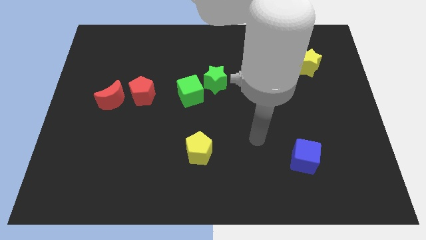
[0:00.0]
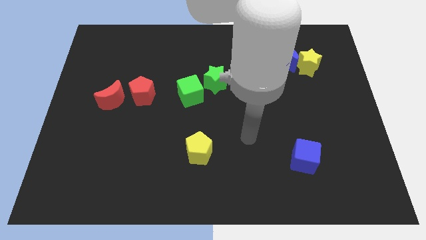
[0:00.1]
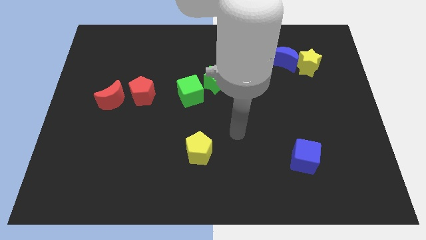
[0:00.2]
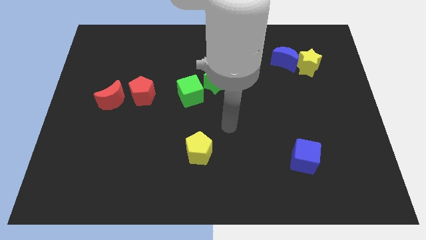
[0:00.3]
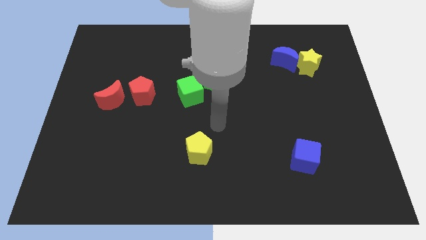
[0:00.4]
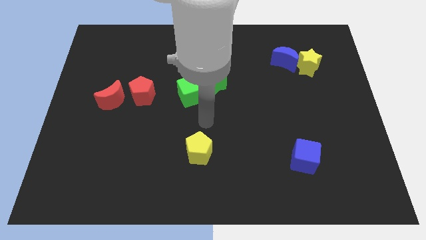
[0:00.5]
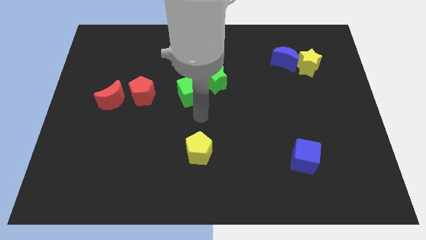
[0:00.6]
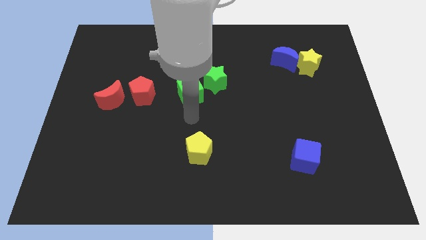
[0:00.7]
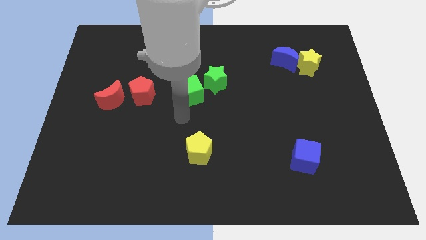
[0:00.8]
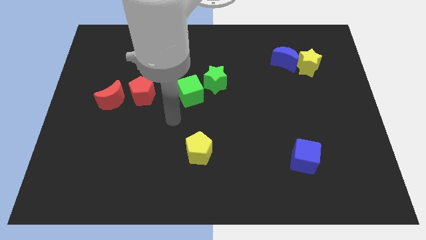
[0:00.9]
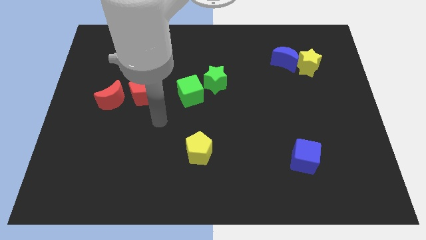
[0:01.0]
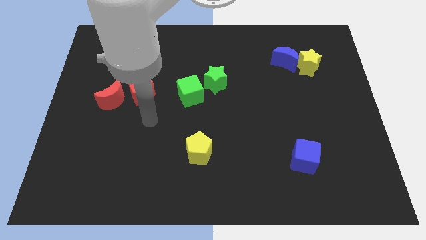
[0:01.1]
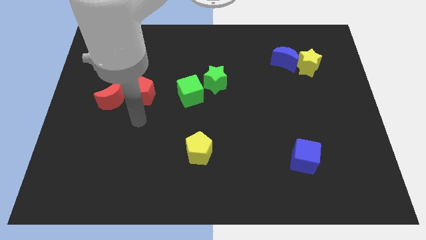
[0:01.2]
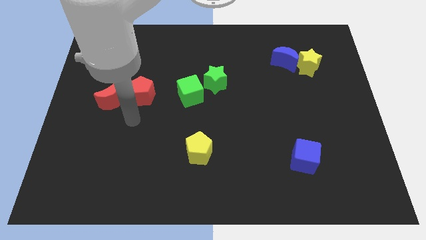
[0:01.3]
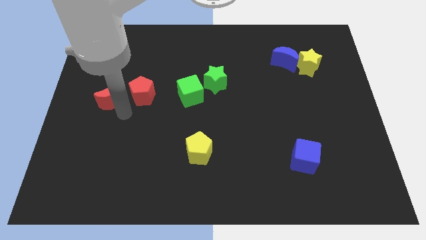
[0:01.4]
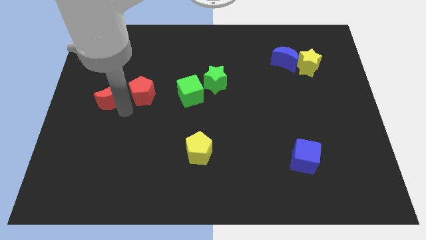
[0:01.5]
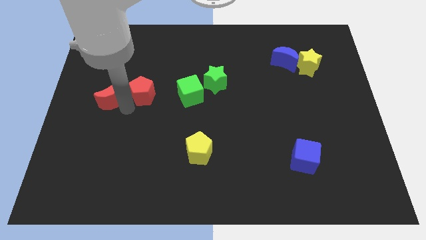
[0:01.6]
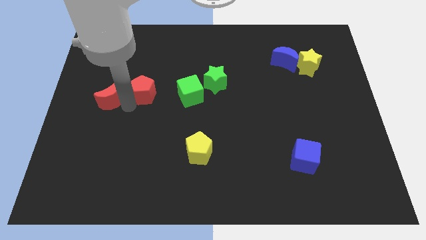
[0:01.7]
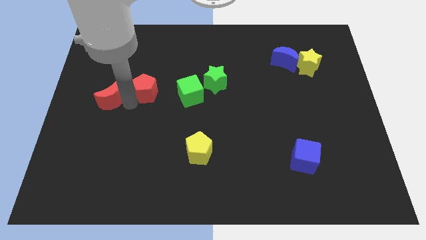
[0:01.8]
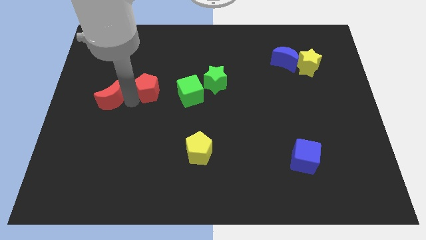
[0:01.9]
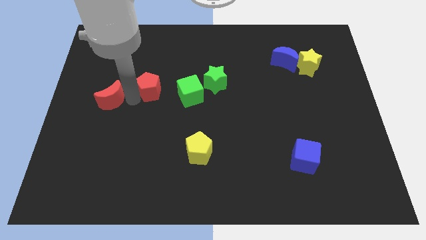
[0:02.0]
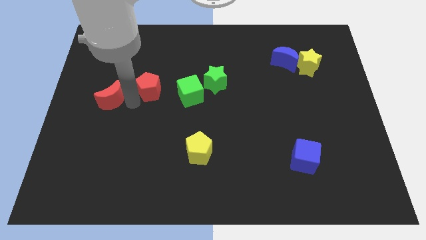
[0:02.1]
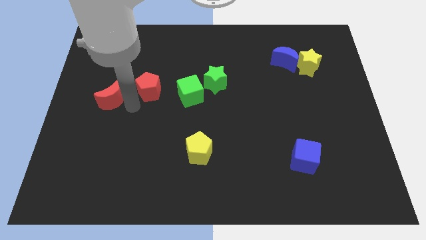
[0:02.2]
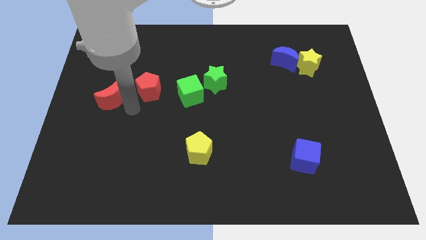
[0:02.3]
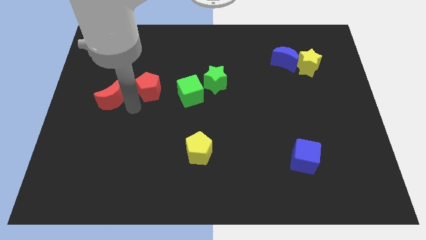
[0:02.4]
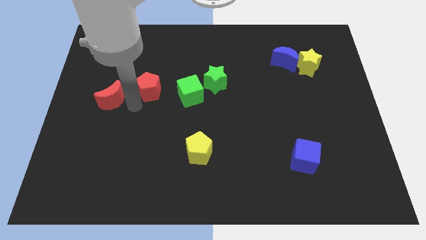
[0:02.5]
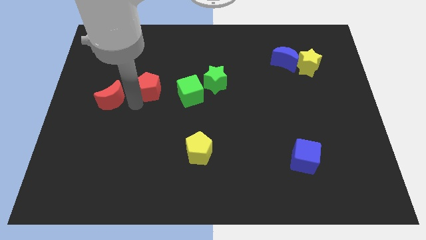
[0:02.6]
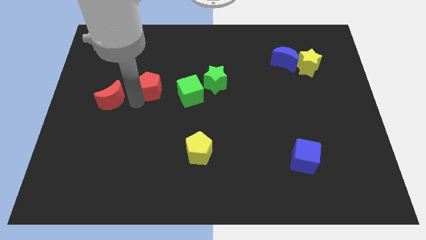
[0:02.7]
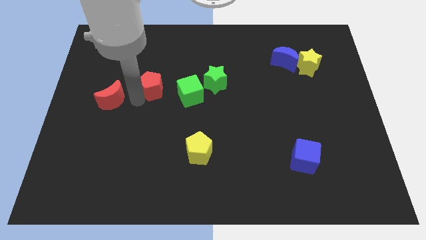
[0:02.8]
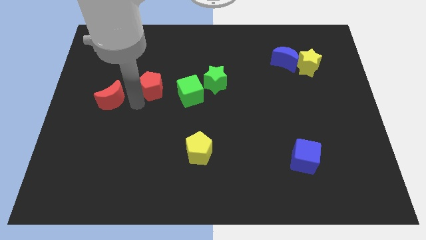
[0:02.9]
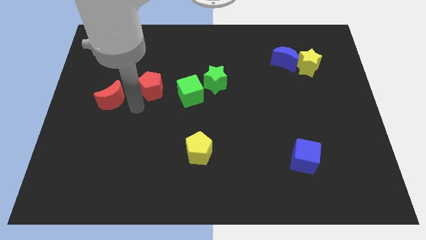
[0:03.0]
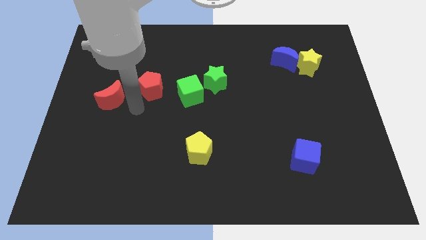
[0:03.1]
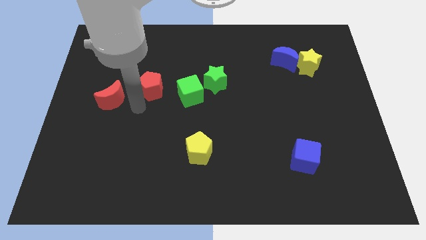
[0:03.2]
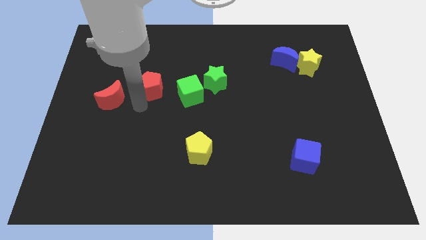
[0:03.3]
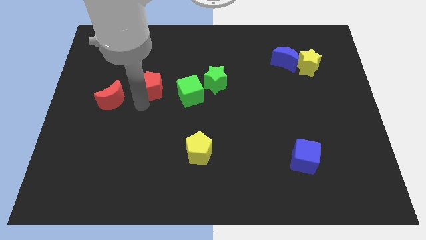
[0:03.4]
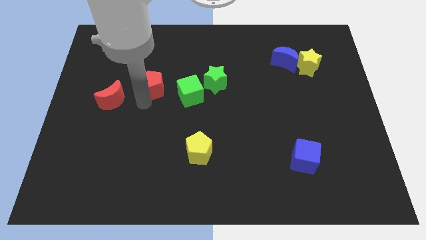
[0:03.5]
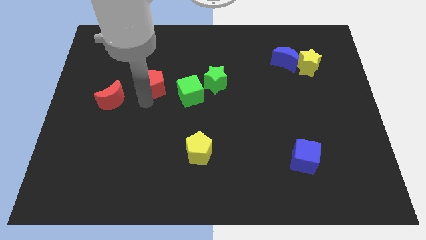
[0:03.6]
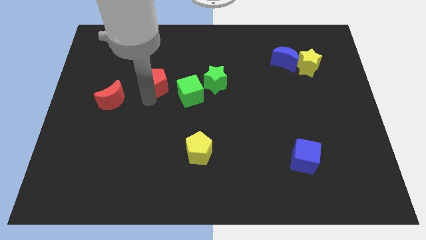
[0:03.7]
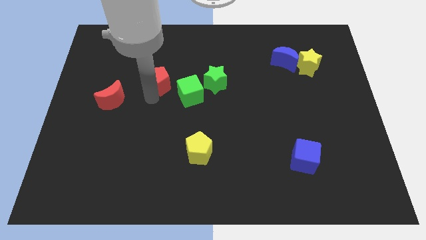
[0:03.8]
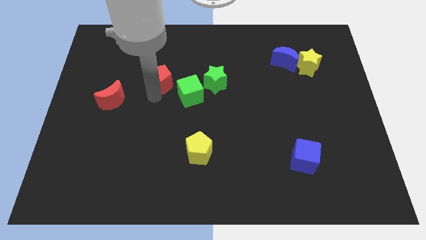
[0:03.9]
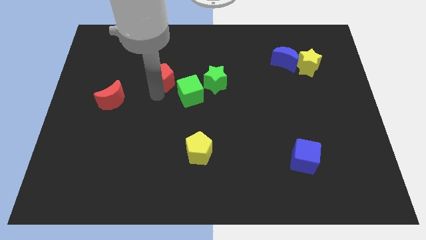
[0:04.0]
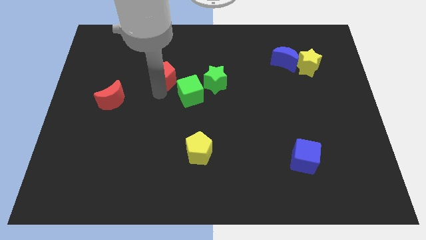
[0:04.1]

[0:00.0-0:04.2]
move the red pentagon somewhat up and then right

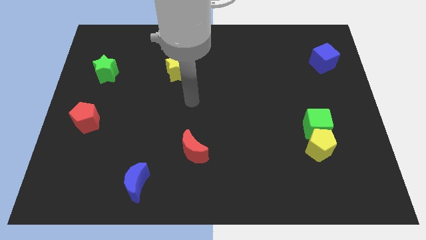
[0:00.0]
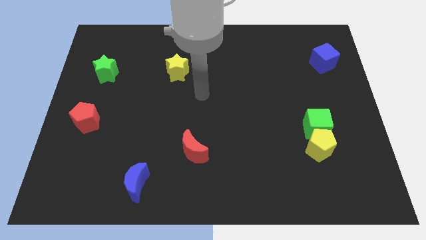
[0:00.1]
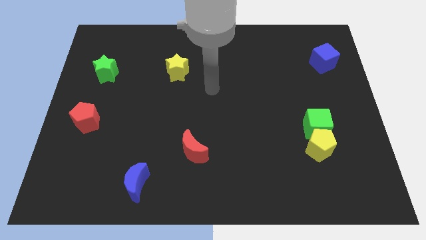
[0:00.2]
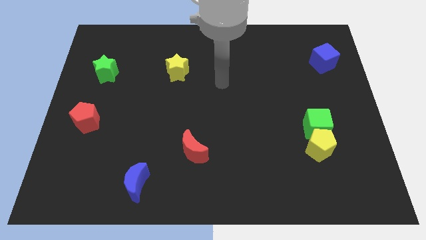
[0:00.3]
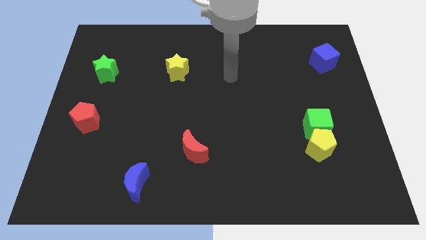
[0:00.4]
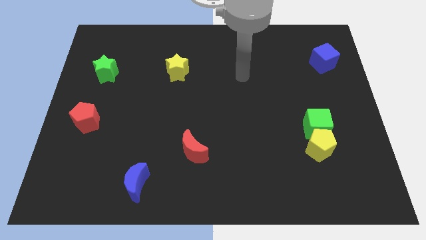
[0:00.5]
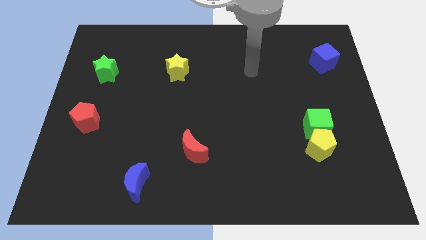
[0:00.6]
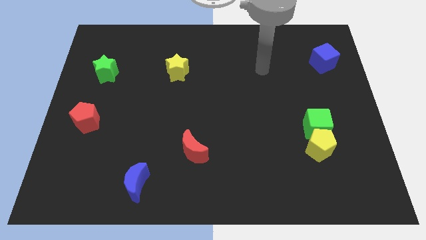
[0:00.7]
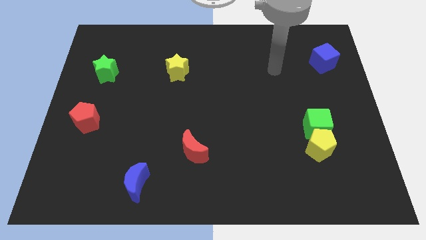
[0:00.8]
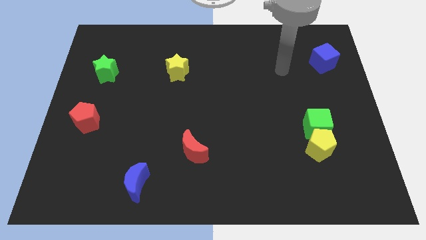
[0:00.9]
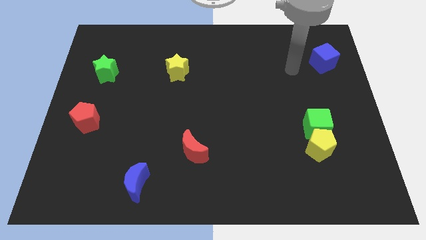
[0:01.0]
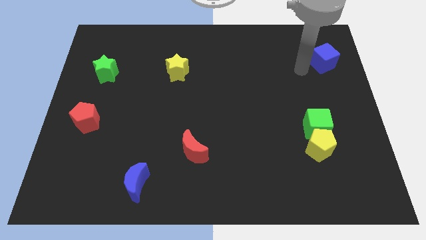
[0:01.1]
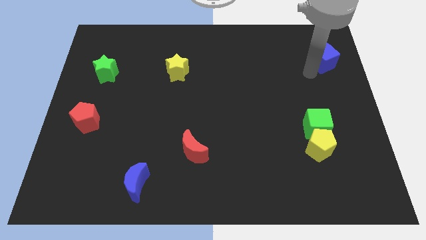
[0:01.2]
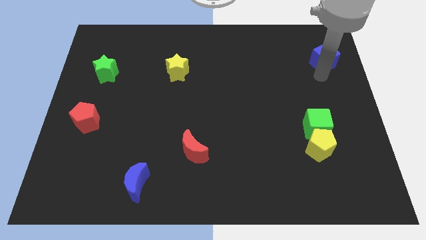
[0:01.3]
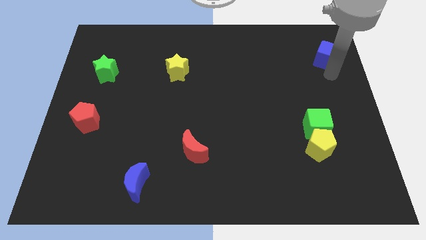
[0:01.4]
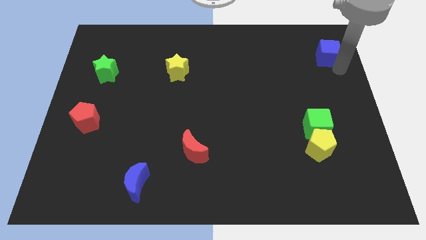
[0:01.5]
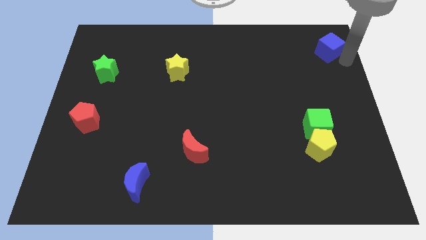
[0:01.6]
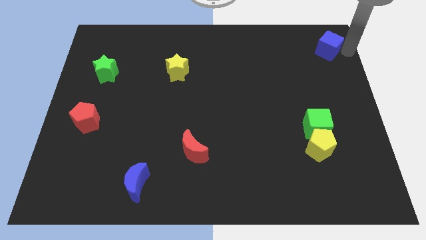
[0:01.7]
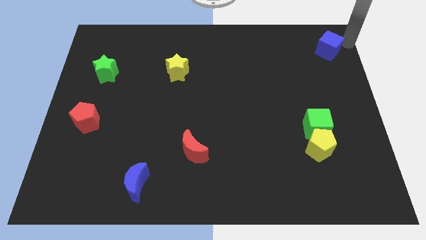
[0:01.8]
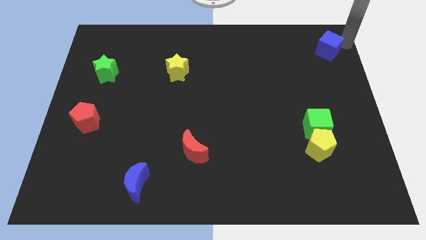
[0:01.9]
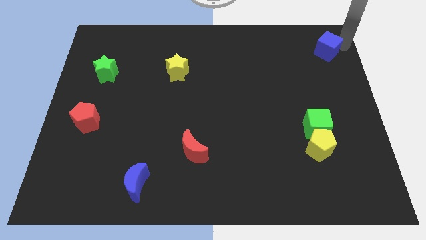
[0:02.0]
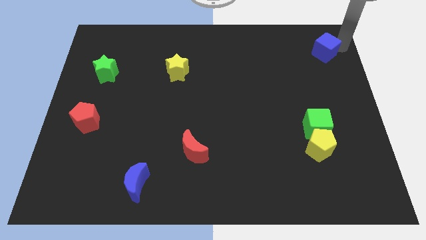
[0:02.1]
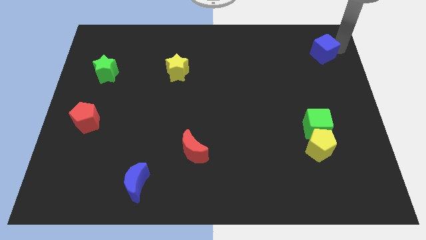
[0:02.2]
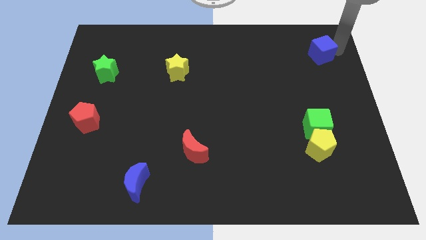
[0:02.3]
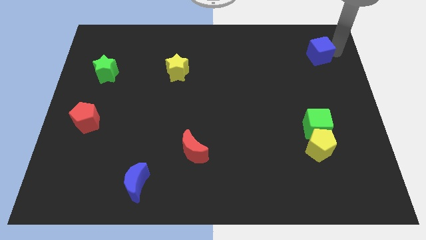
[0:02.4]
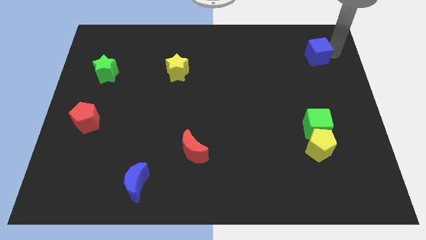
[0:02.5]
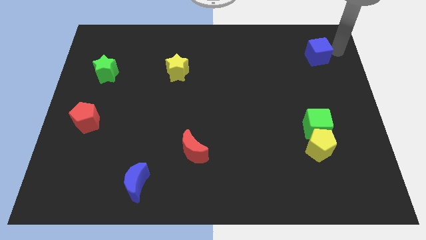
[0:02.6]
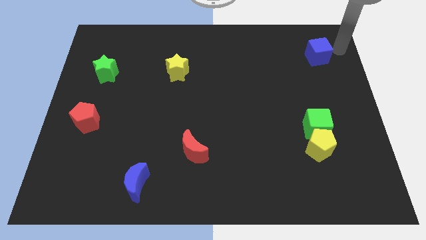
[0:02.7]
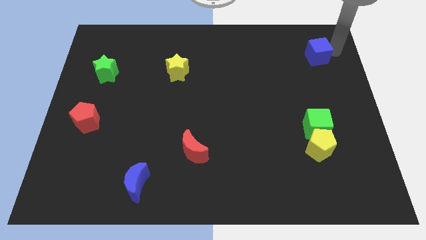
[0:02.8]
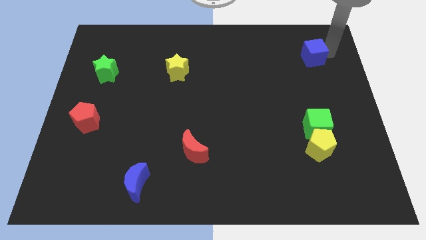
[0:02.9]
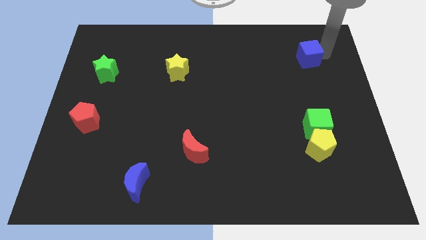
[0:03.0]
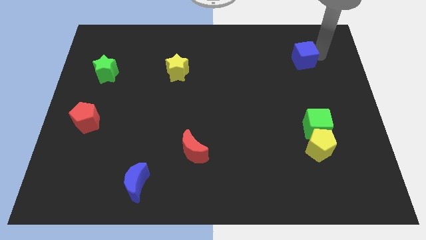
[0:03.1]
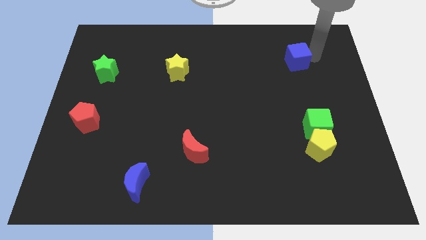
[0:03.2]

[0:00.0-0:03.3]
slightly move the blue cube to the left

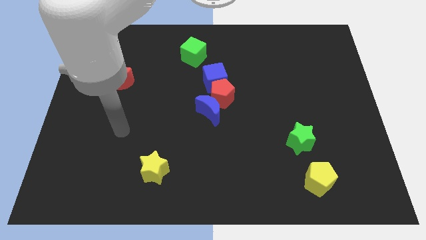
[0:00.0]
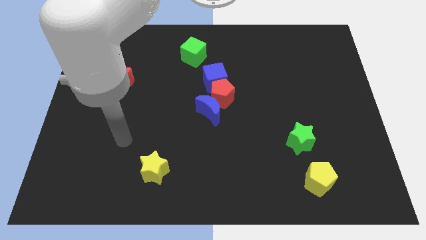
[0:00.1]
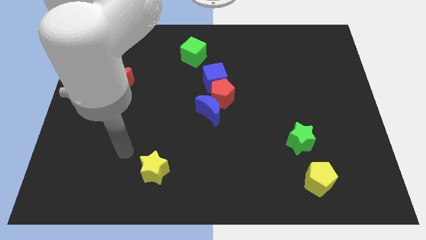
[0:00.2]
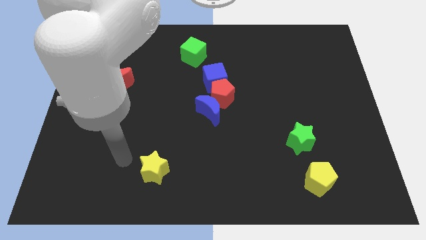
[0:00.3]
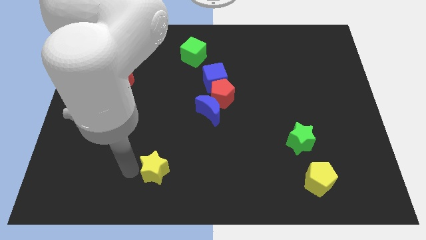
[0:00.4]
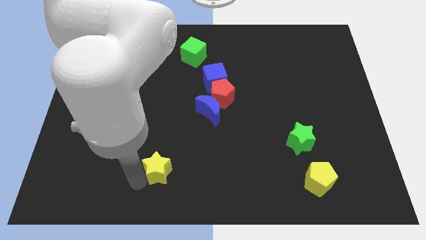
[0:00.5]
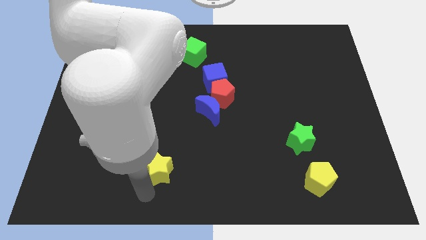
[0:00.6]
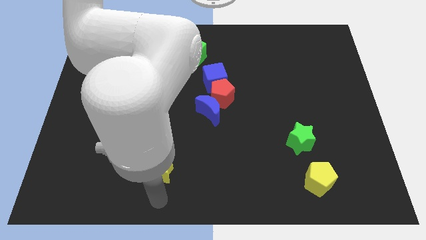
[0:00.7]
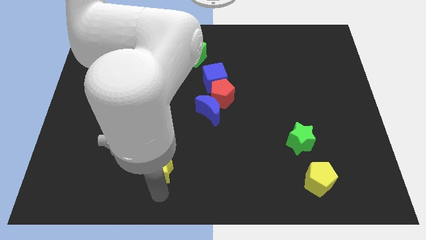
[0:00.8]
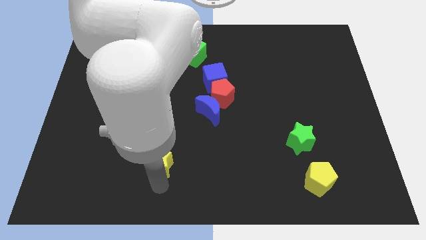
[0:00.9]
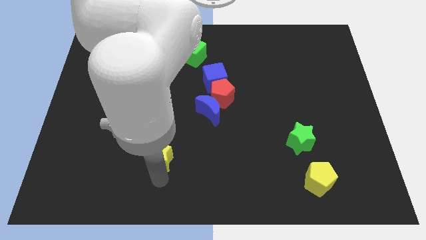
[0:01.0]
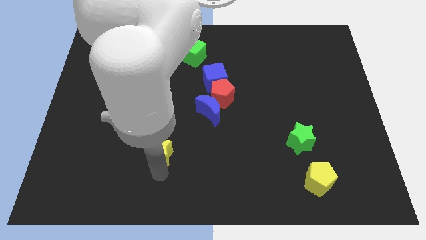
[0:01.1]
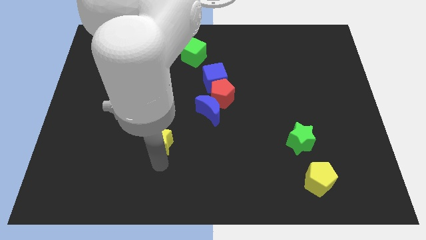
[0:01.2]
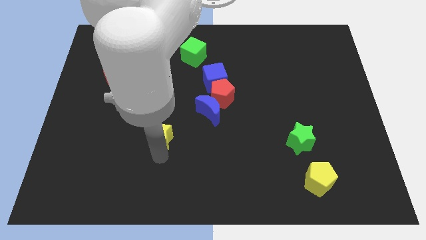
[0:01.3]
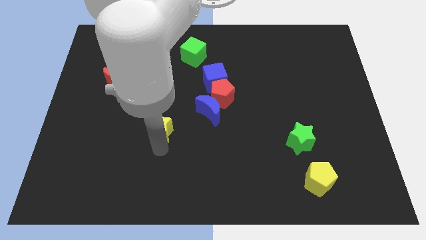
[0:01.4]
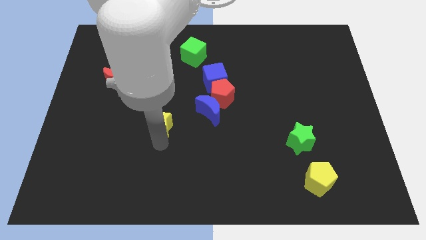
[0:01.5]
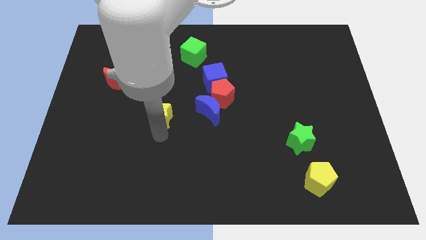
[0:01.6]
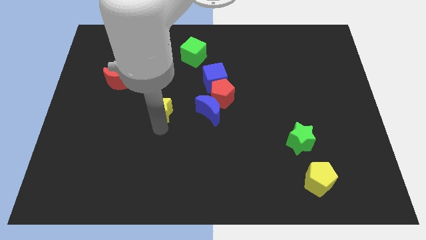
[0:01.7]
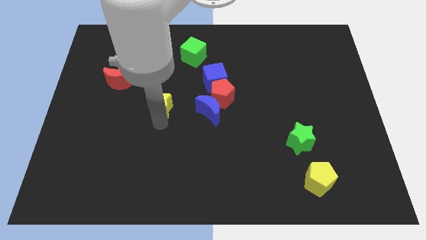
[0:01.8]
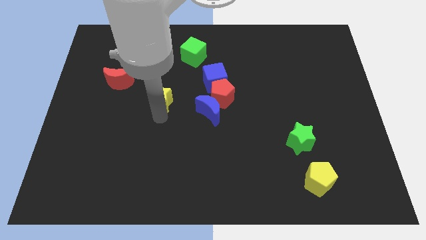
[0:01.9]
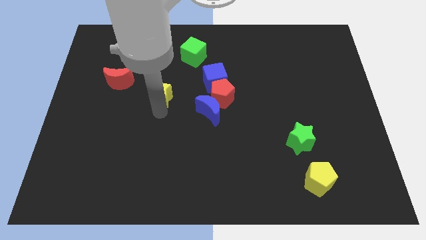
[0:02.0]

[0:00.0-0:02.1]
slide the yellow star upwards
